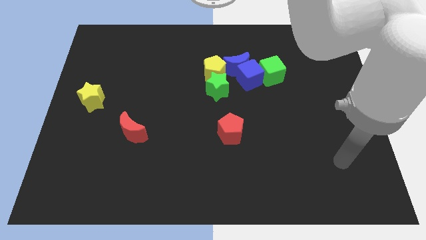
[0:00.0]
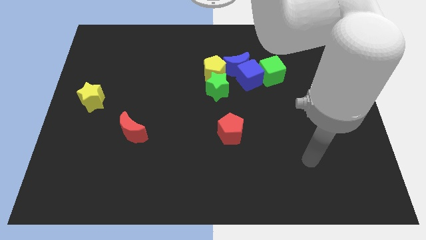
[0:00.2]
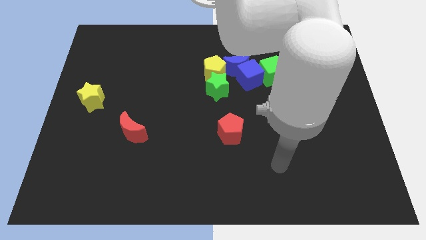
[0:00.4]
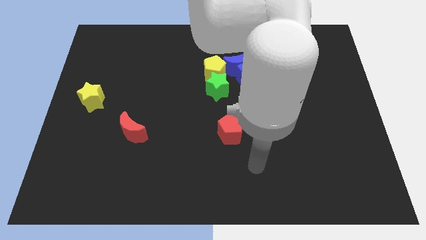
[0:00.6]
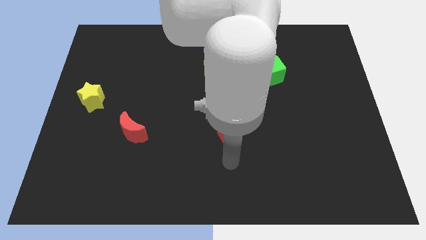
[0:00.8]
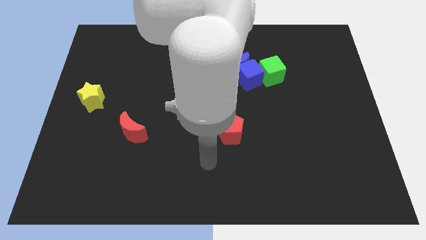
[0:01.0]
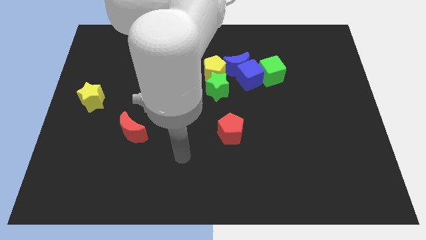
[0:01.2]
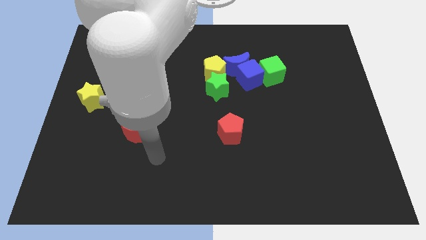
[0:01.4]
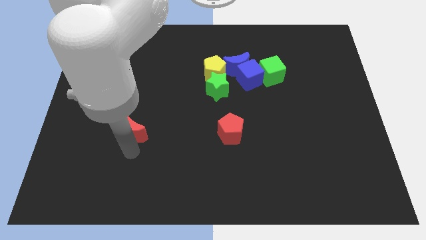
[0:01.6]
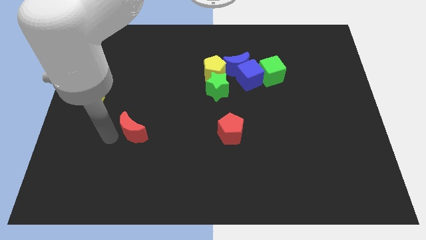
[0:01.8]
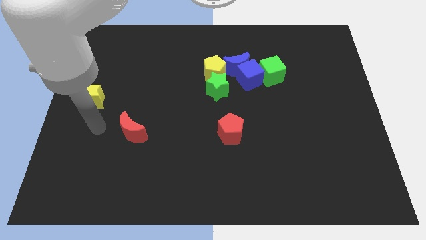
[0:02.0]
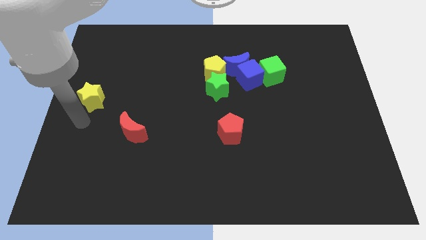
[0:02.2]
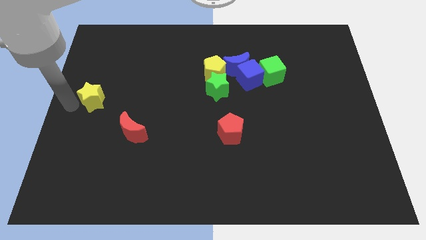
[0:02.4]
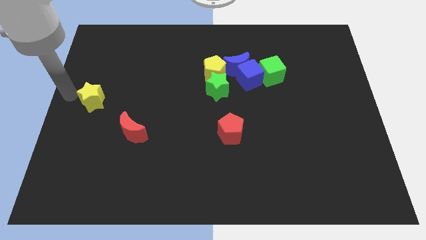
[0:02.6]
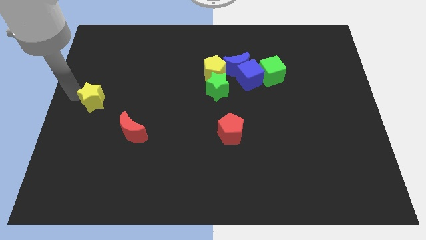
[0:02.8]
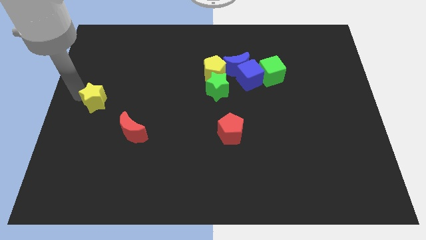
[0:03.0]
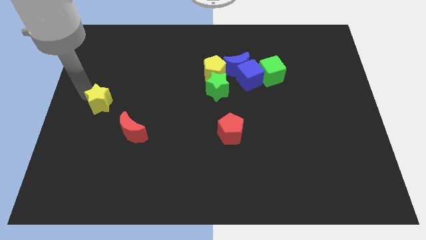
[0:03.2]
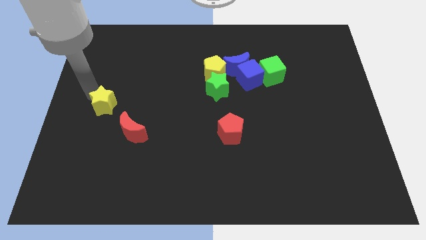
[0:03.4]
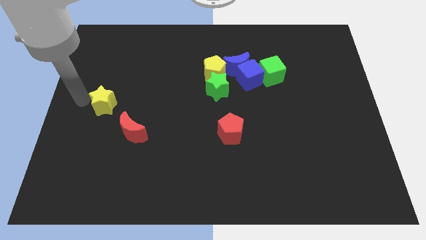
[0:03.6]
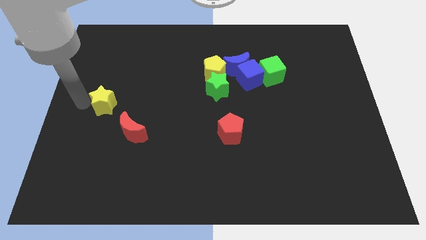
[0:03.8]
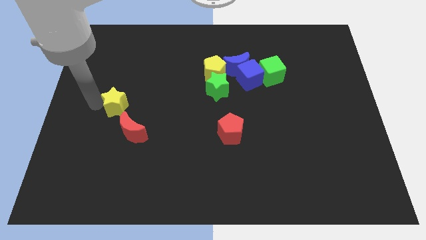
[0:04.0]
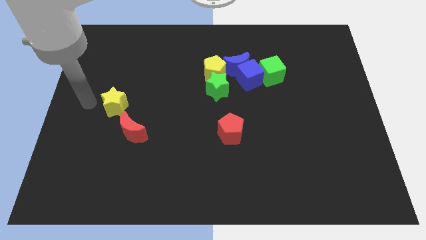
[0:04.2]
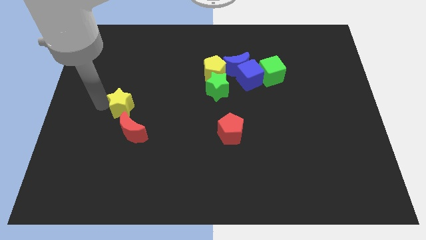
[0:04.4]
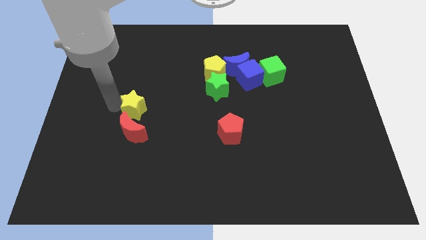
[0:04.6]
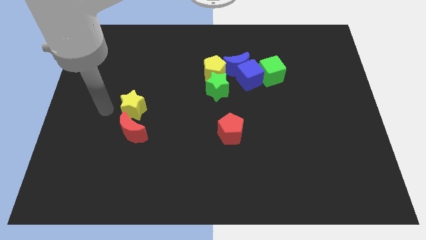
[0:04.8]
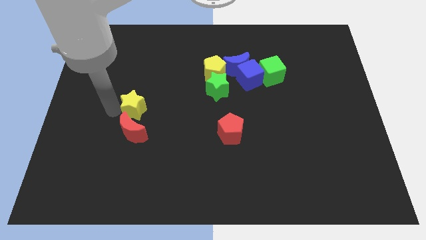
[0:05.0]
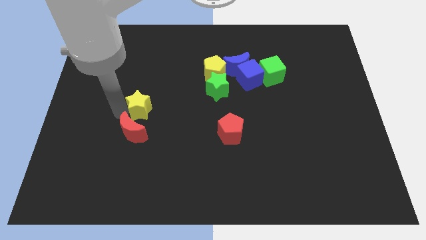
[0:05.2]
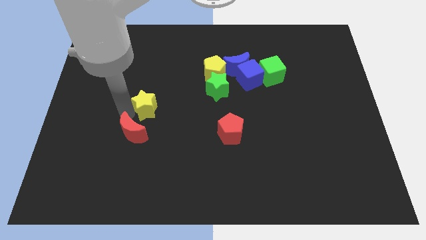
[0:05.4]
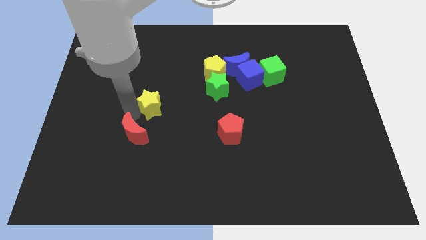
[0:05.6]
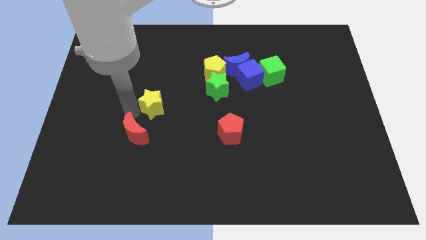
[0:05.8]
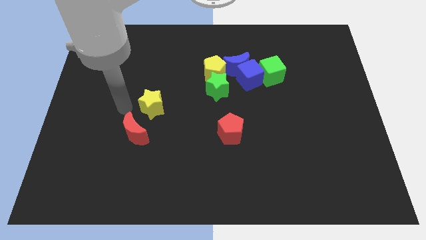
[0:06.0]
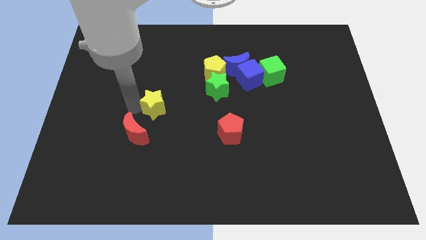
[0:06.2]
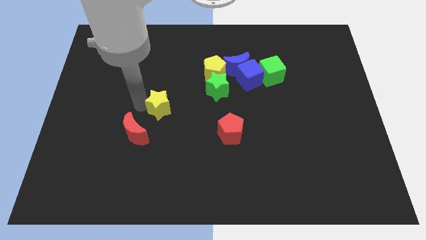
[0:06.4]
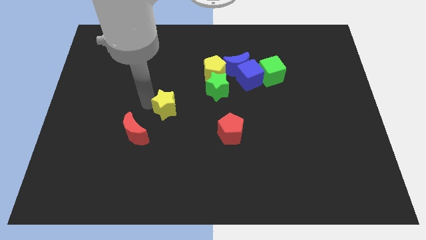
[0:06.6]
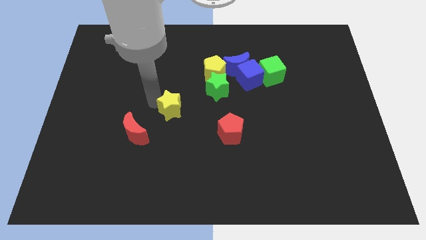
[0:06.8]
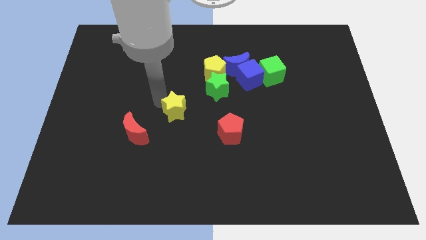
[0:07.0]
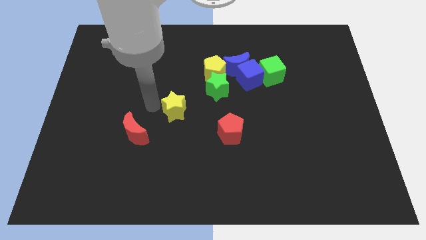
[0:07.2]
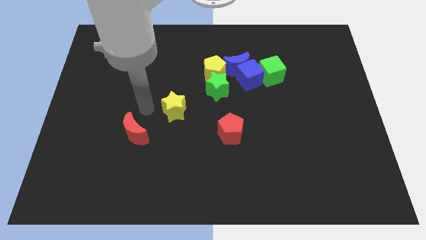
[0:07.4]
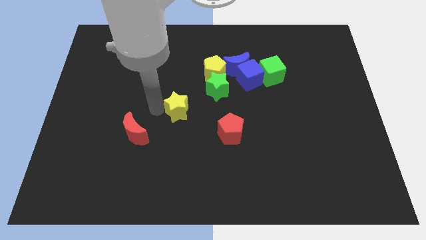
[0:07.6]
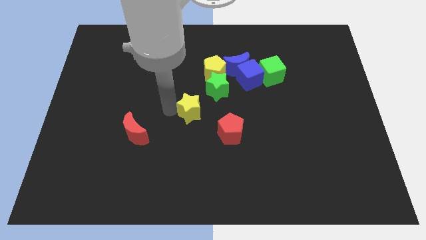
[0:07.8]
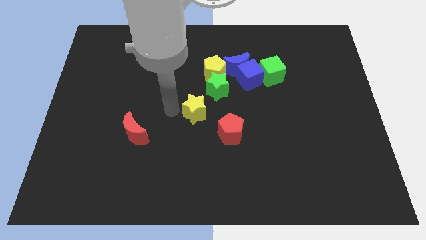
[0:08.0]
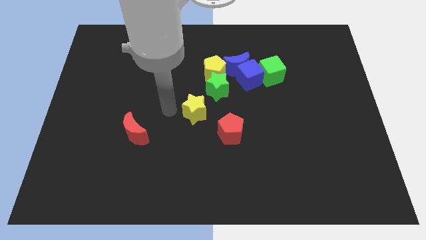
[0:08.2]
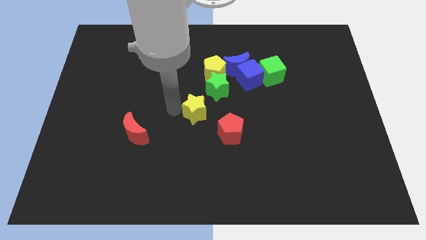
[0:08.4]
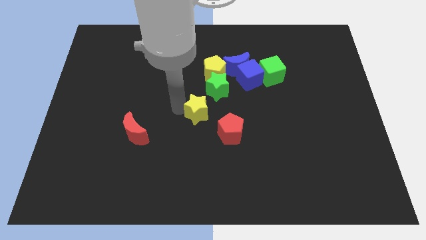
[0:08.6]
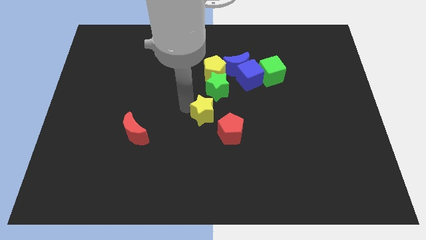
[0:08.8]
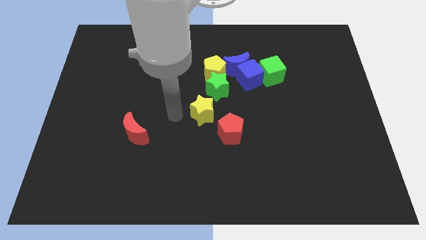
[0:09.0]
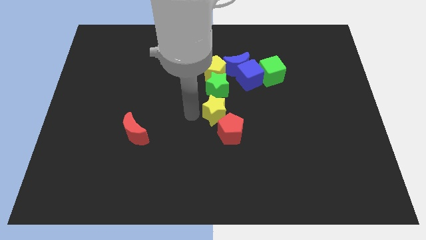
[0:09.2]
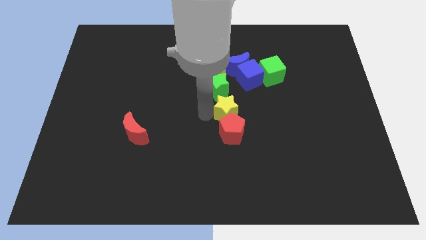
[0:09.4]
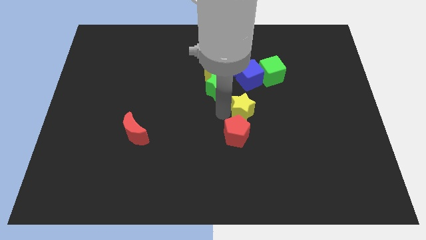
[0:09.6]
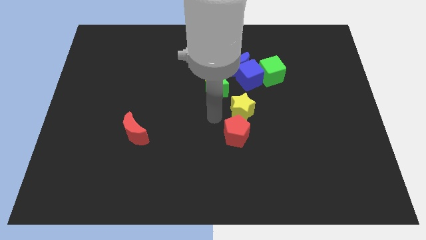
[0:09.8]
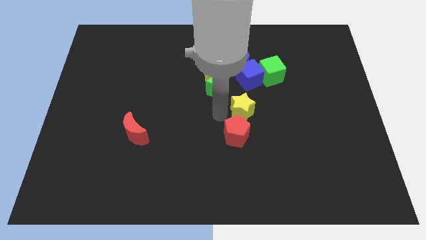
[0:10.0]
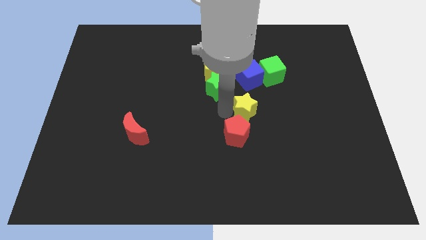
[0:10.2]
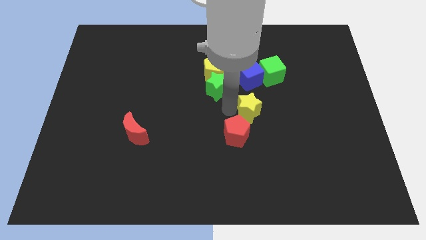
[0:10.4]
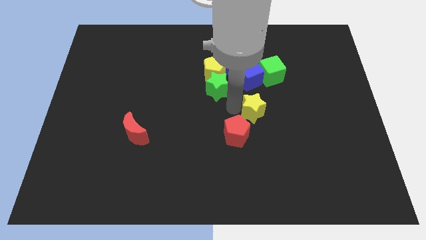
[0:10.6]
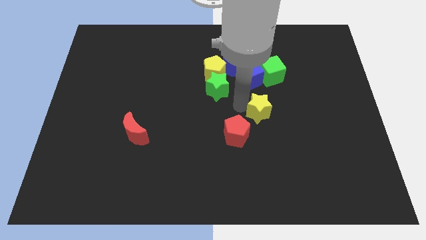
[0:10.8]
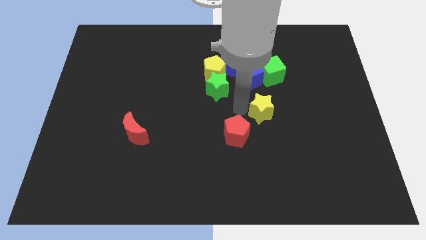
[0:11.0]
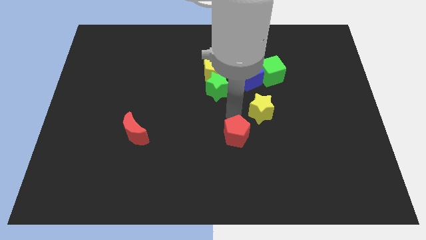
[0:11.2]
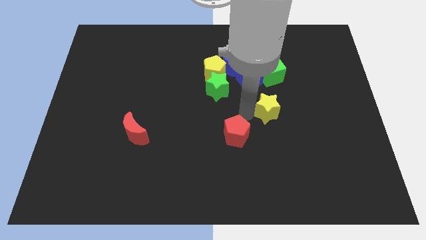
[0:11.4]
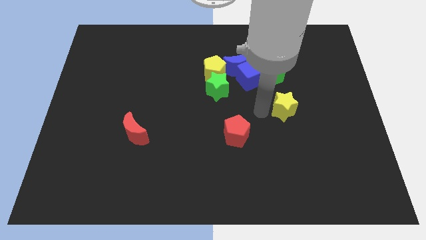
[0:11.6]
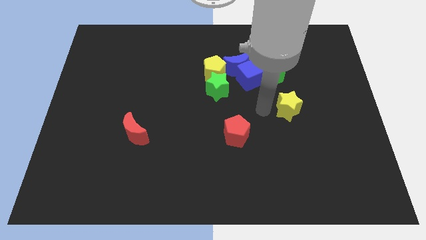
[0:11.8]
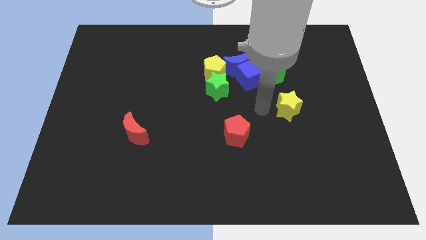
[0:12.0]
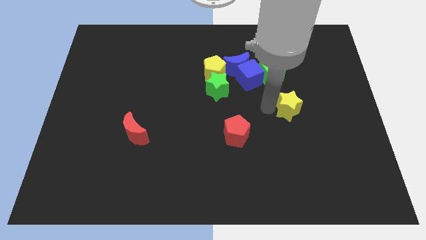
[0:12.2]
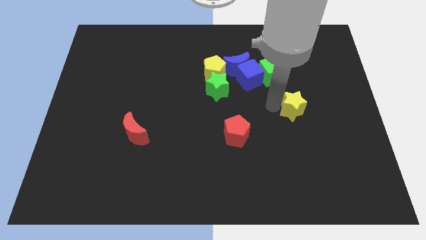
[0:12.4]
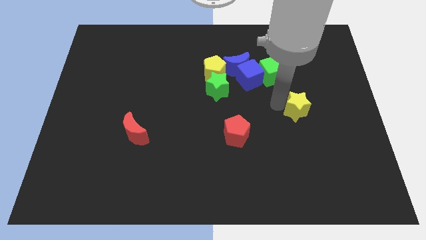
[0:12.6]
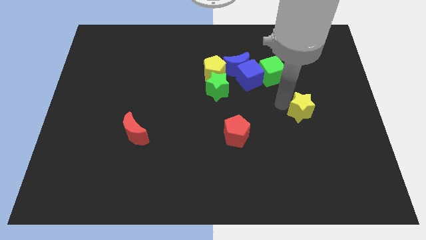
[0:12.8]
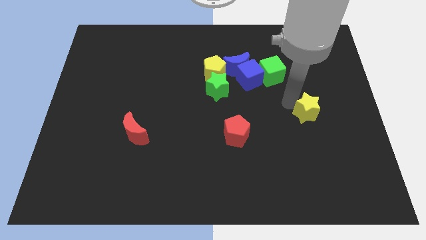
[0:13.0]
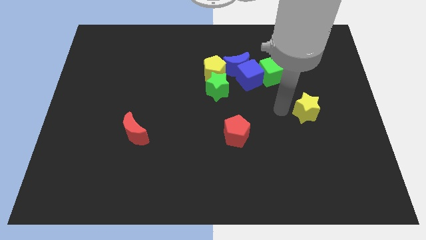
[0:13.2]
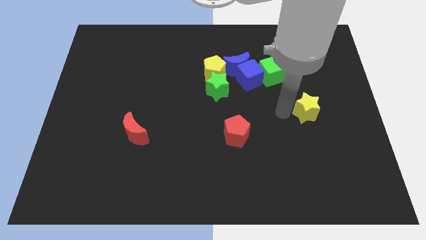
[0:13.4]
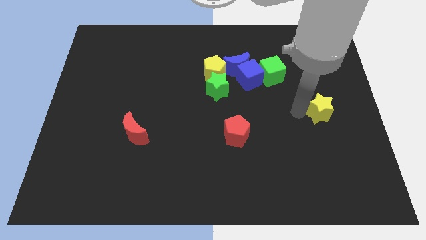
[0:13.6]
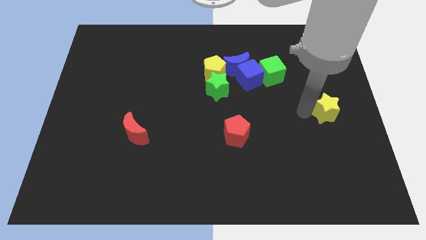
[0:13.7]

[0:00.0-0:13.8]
put the yellow star to the right side of the board

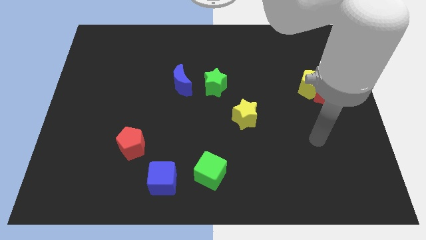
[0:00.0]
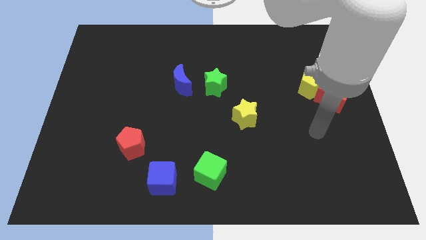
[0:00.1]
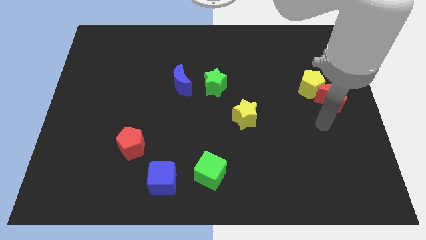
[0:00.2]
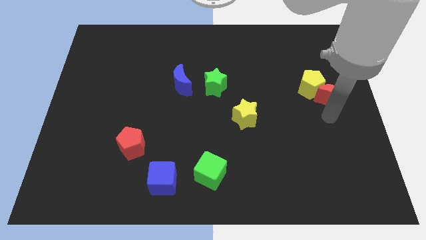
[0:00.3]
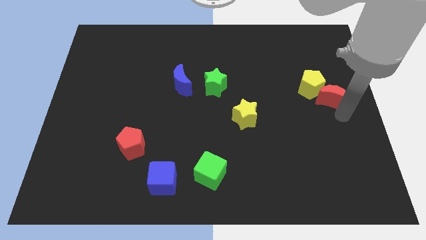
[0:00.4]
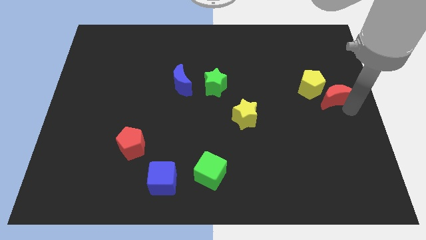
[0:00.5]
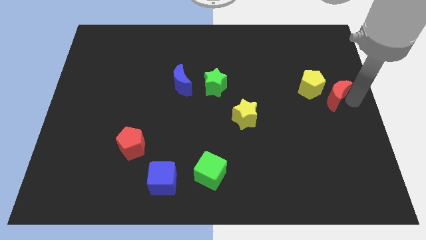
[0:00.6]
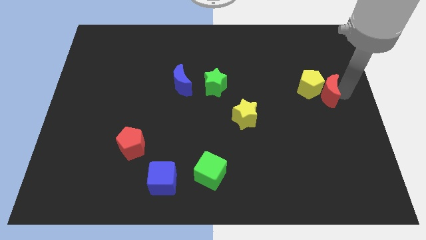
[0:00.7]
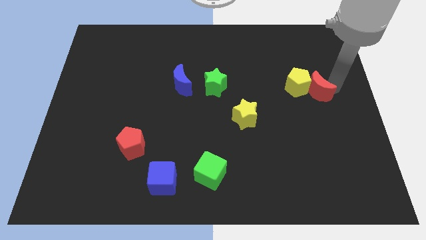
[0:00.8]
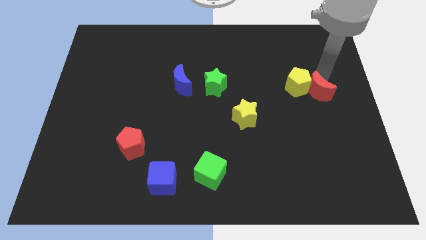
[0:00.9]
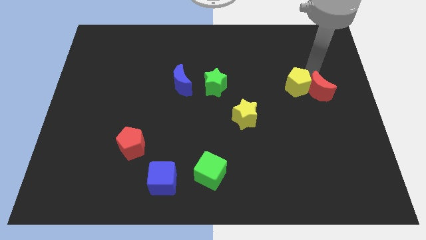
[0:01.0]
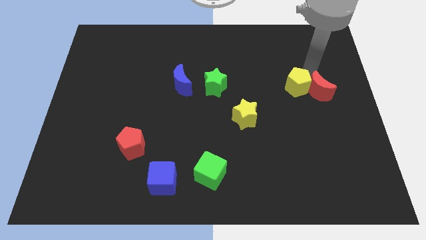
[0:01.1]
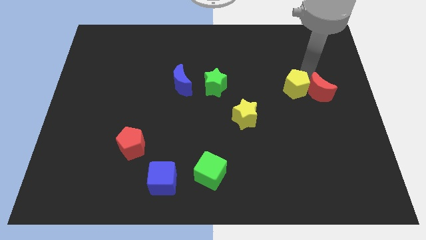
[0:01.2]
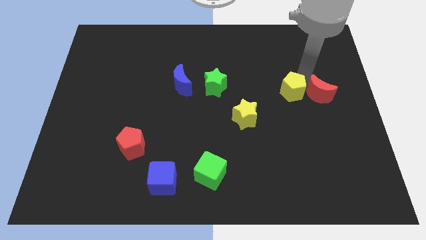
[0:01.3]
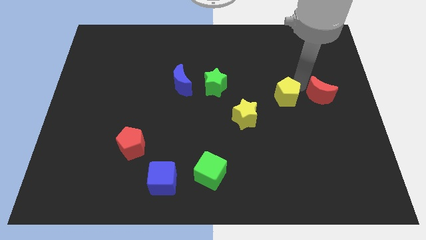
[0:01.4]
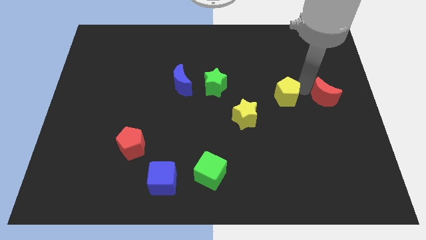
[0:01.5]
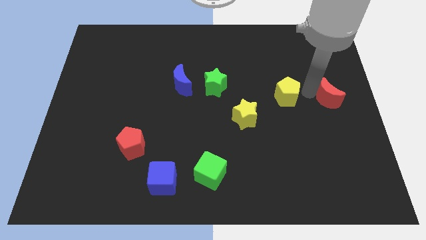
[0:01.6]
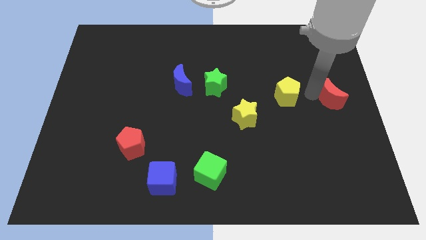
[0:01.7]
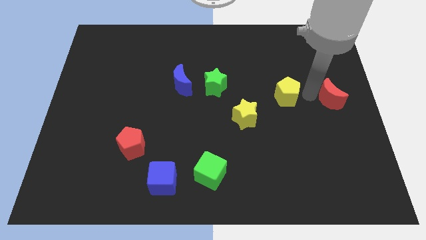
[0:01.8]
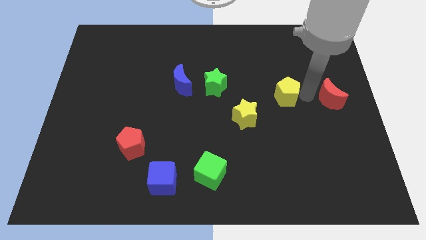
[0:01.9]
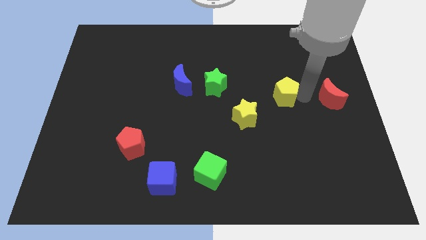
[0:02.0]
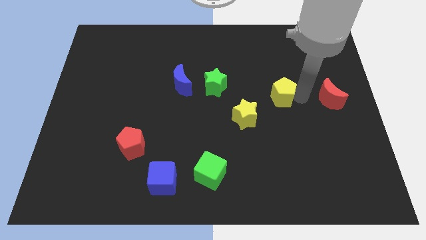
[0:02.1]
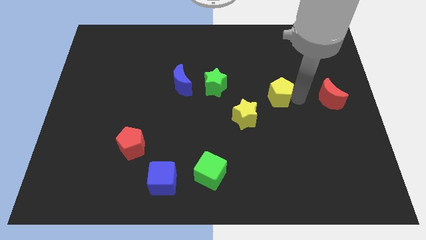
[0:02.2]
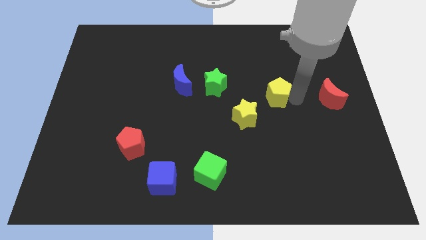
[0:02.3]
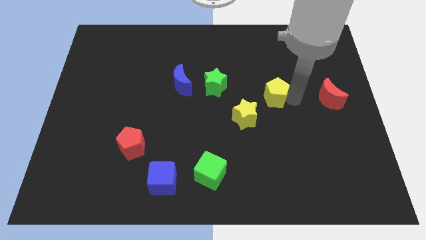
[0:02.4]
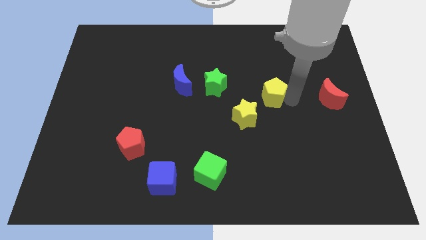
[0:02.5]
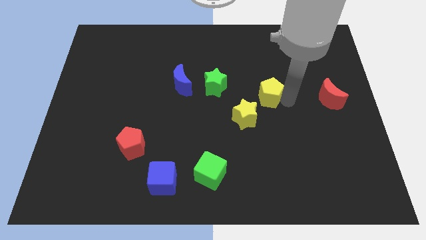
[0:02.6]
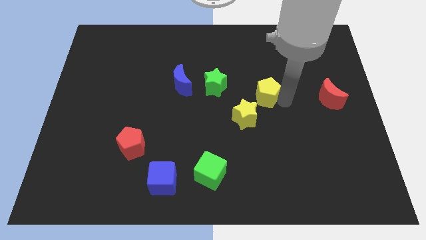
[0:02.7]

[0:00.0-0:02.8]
move the yellow pentagon to the middle
